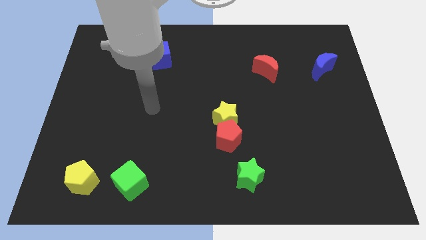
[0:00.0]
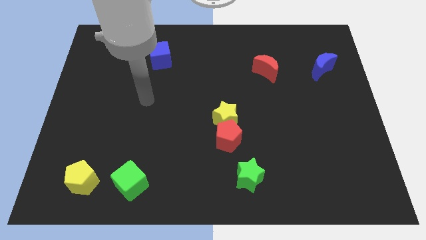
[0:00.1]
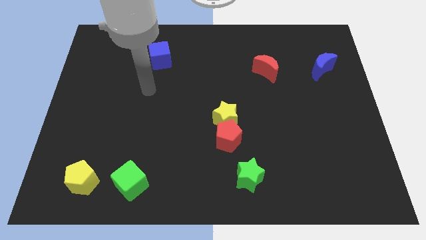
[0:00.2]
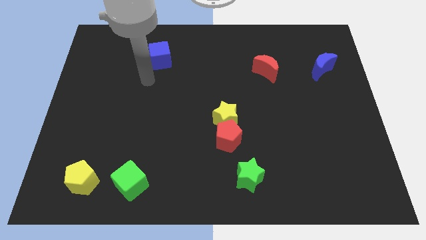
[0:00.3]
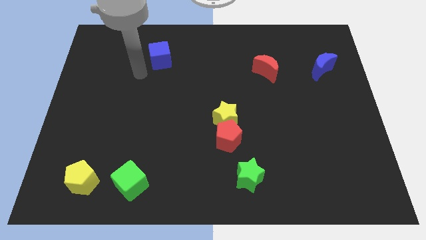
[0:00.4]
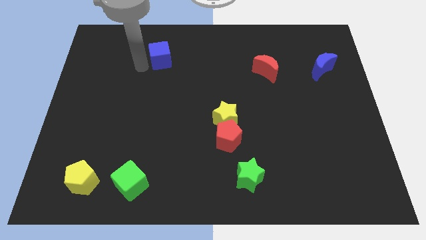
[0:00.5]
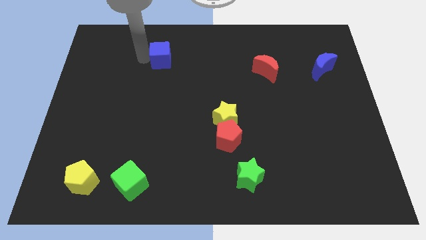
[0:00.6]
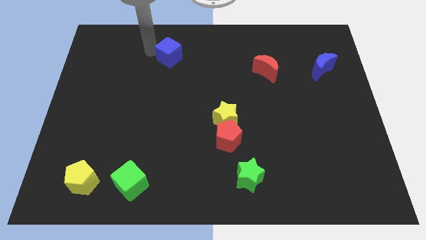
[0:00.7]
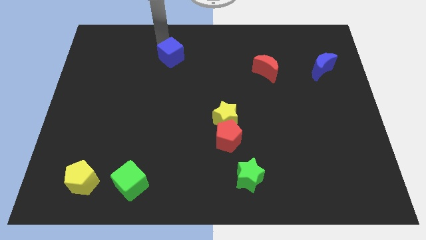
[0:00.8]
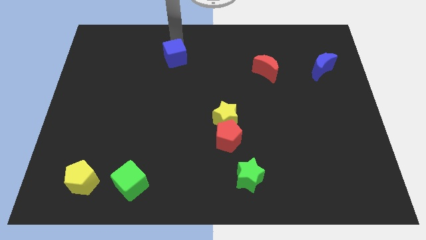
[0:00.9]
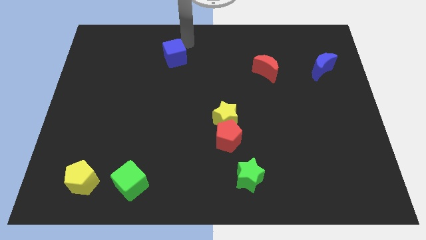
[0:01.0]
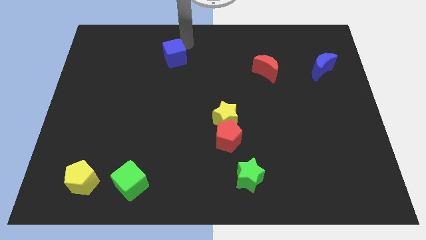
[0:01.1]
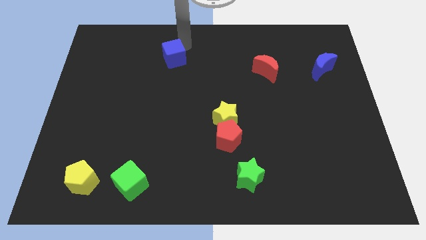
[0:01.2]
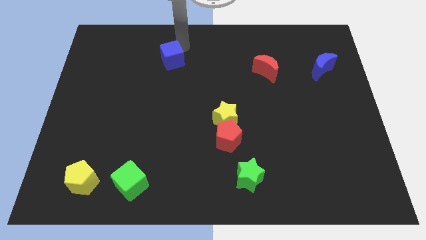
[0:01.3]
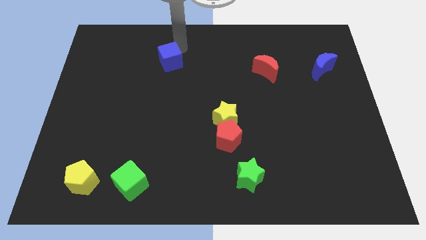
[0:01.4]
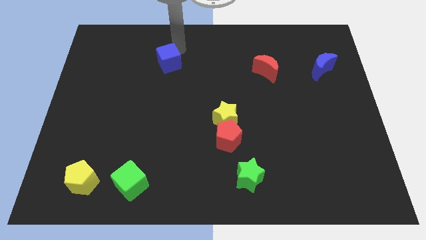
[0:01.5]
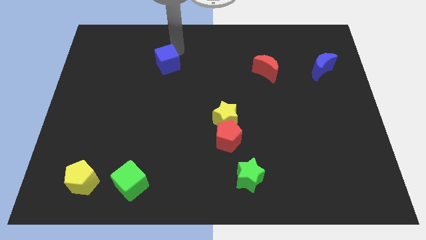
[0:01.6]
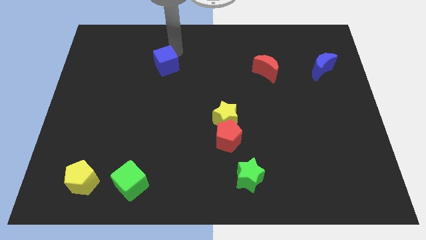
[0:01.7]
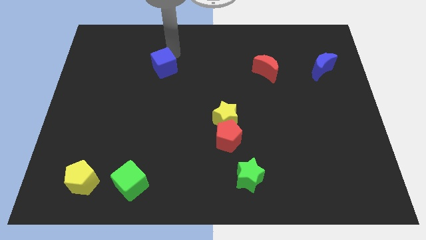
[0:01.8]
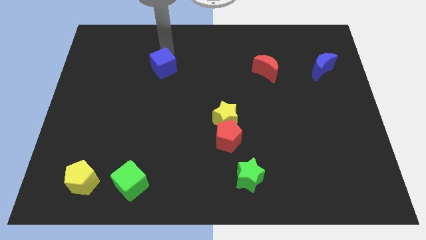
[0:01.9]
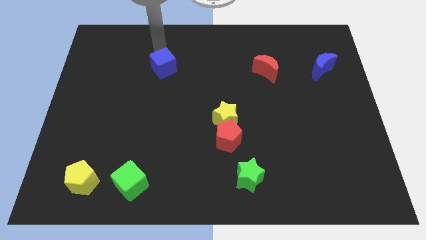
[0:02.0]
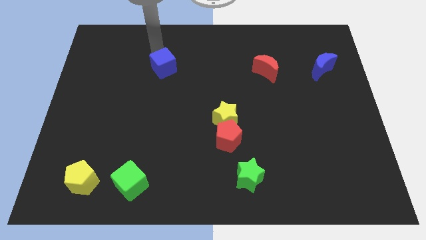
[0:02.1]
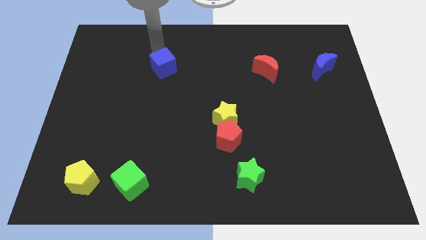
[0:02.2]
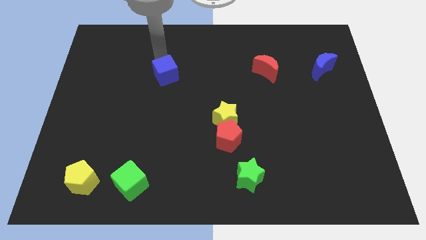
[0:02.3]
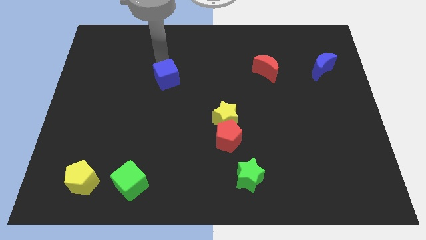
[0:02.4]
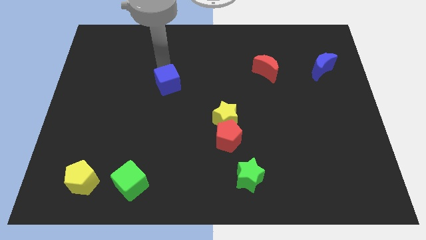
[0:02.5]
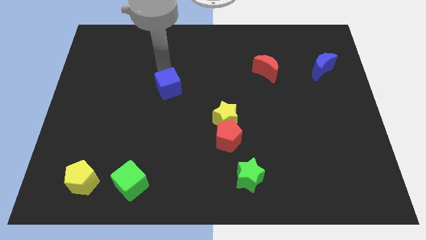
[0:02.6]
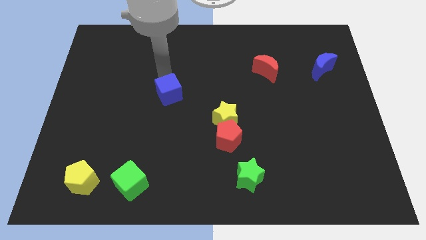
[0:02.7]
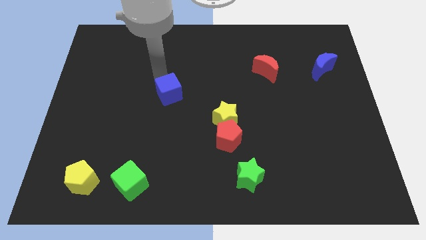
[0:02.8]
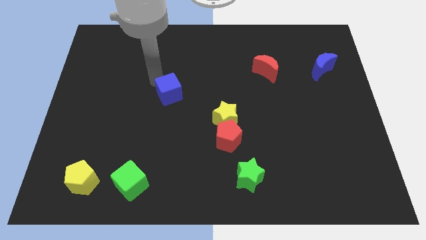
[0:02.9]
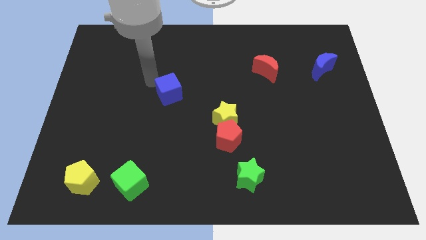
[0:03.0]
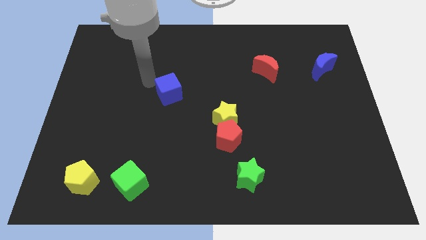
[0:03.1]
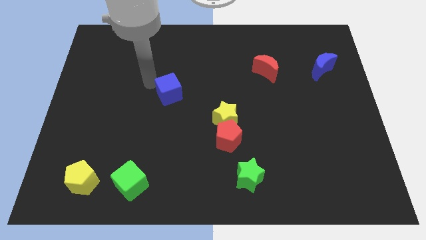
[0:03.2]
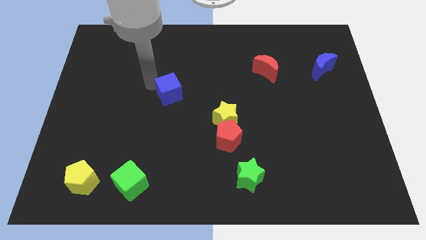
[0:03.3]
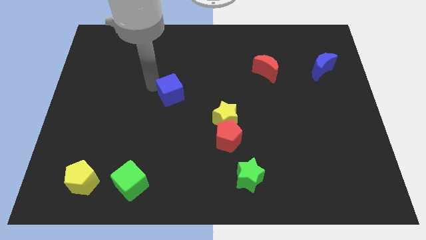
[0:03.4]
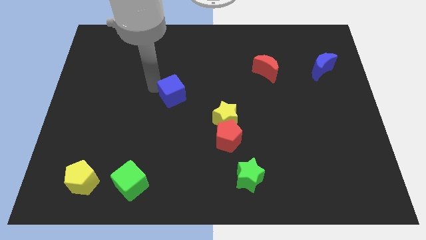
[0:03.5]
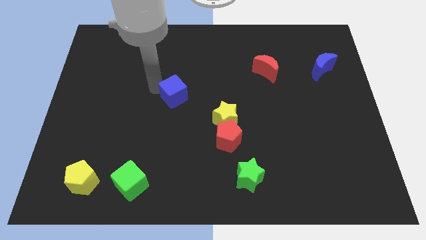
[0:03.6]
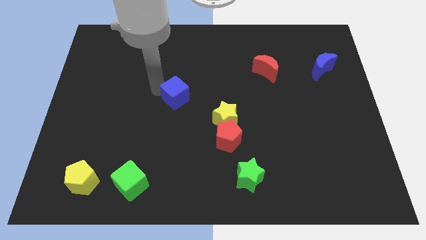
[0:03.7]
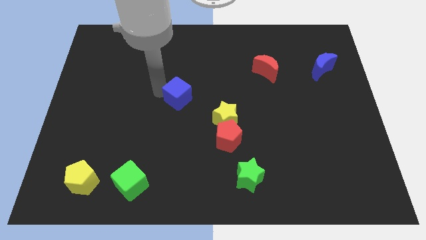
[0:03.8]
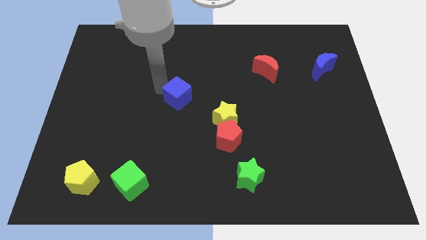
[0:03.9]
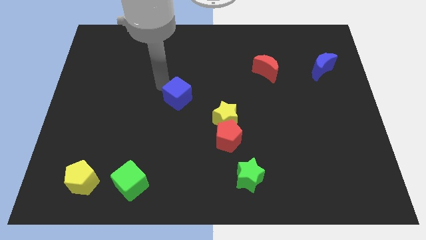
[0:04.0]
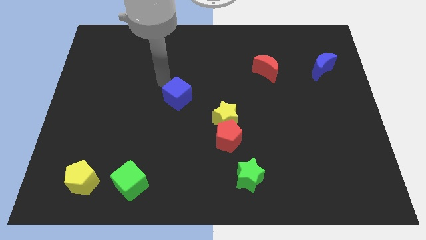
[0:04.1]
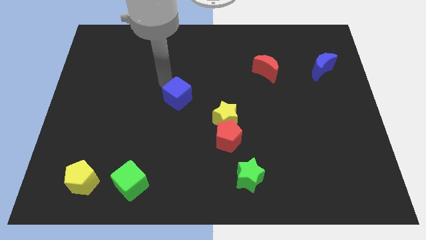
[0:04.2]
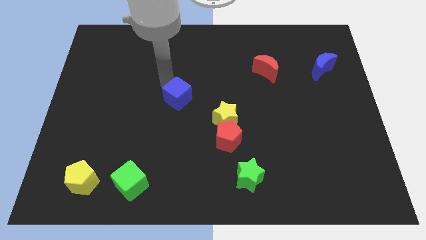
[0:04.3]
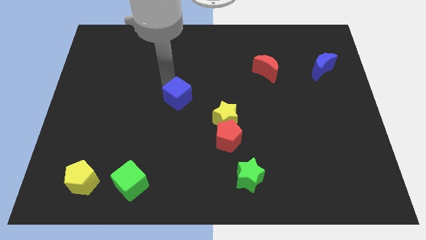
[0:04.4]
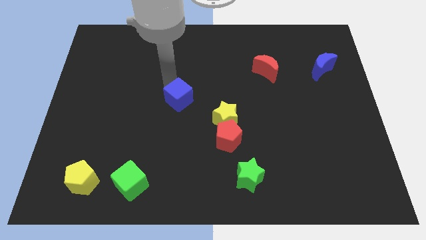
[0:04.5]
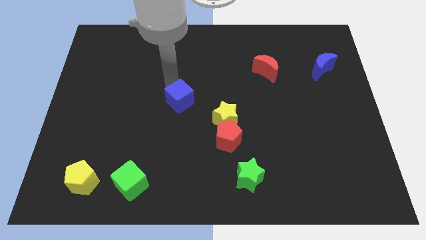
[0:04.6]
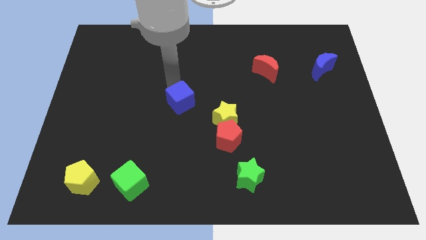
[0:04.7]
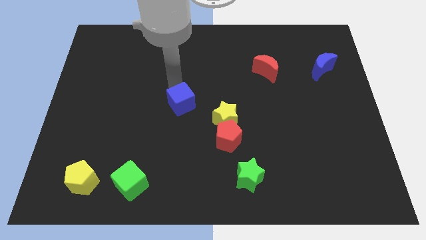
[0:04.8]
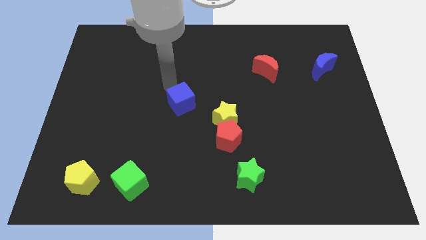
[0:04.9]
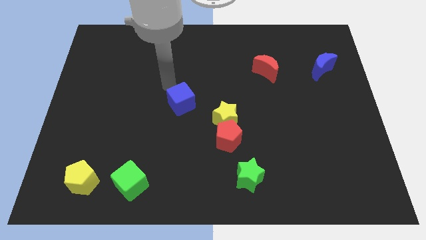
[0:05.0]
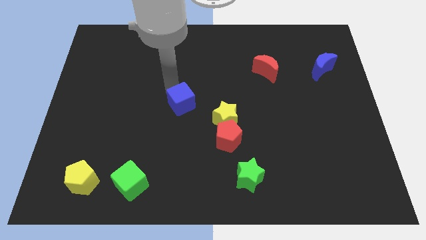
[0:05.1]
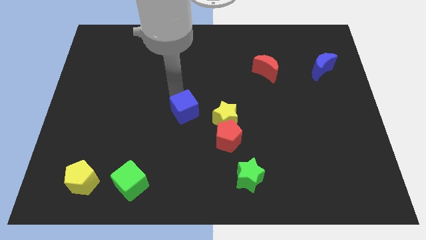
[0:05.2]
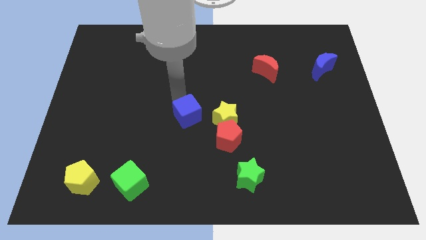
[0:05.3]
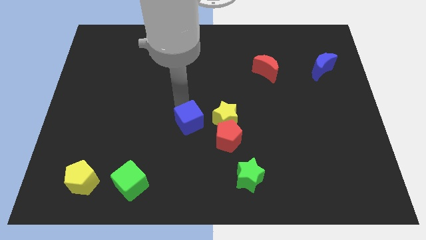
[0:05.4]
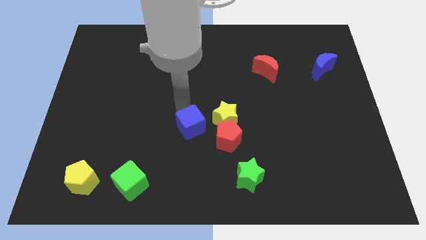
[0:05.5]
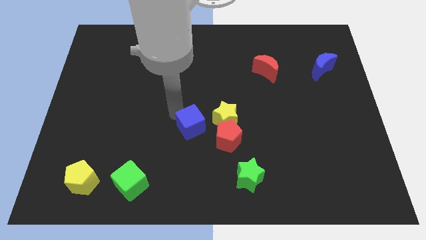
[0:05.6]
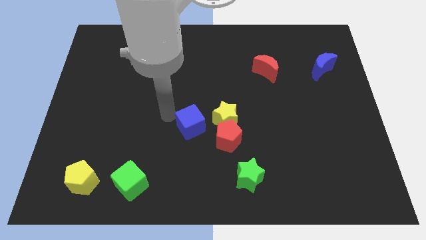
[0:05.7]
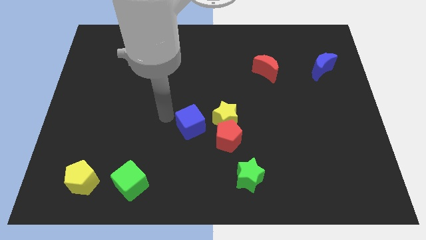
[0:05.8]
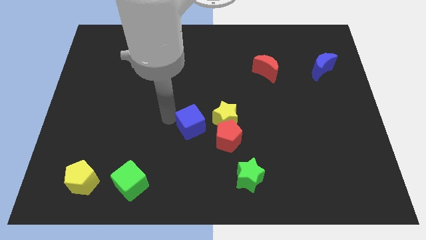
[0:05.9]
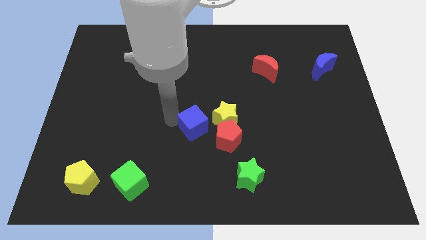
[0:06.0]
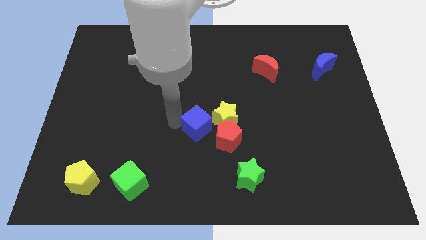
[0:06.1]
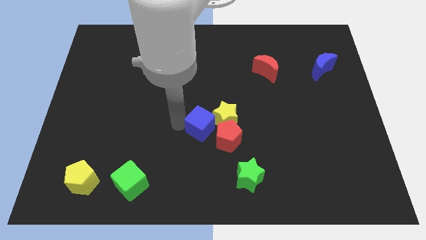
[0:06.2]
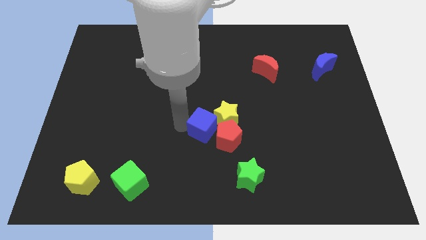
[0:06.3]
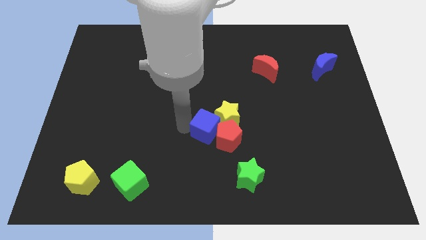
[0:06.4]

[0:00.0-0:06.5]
put the blue cube towards the red pentagon

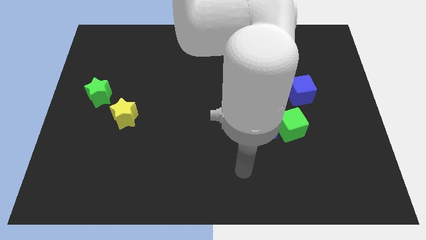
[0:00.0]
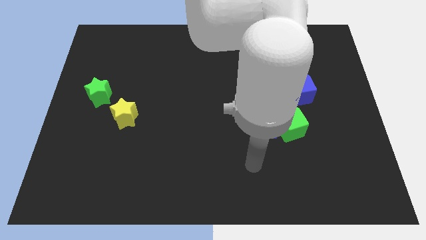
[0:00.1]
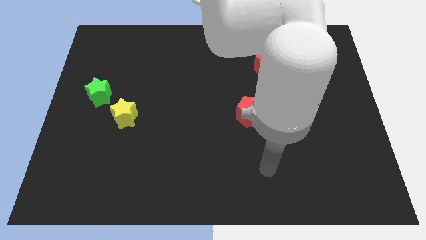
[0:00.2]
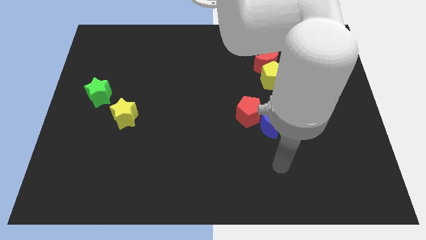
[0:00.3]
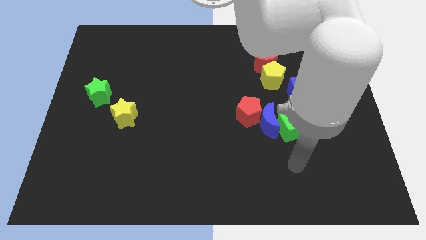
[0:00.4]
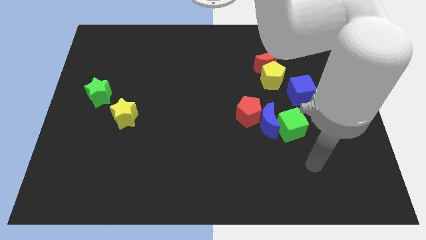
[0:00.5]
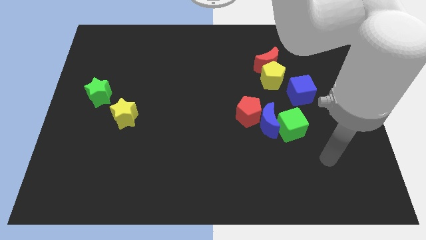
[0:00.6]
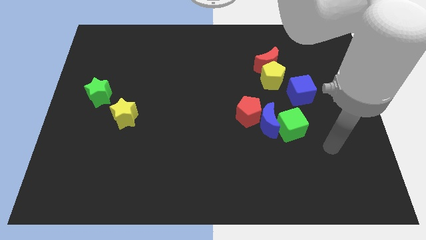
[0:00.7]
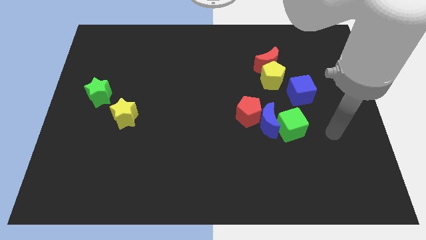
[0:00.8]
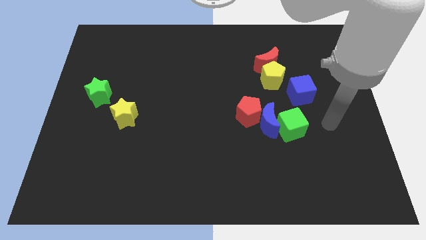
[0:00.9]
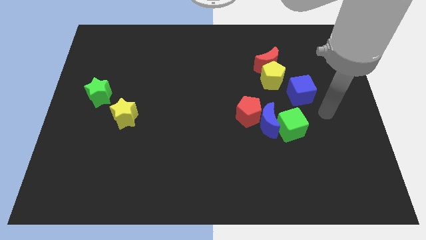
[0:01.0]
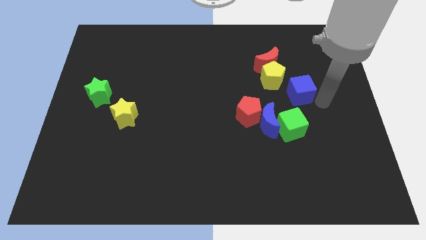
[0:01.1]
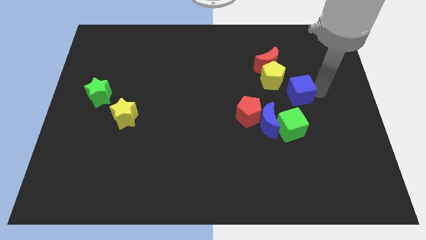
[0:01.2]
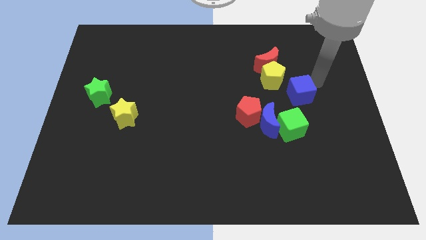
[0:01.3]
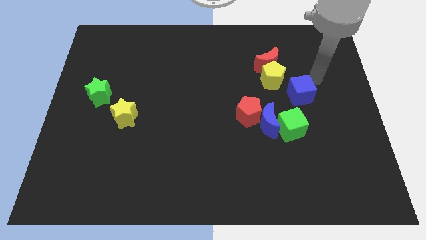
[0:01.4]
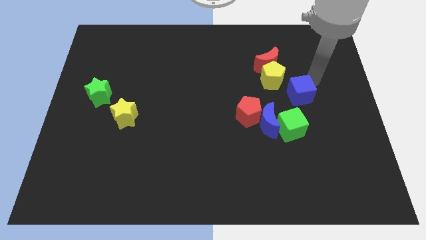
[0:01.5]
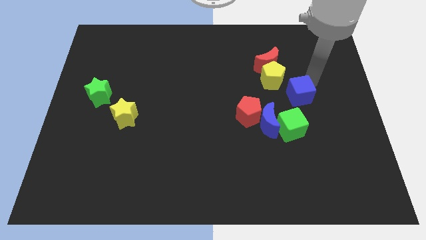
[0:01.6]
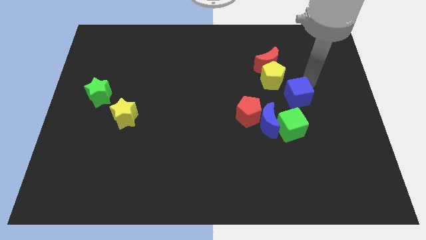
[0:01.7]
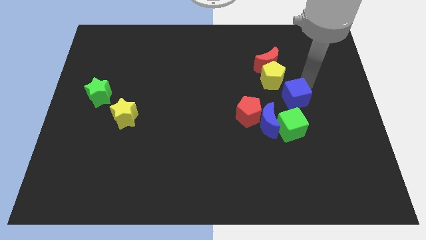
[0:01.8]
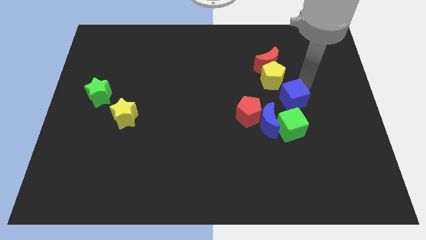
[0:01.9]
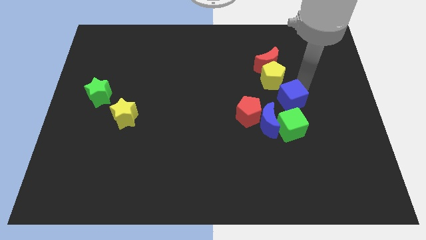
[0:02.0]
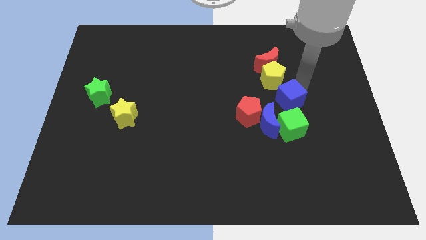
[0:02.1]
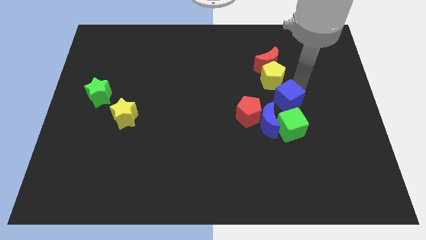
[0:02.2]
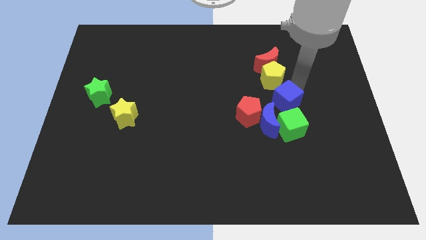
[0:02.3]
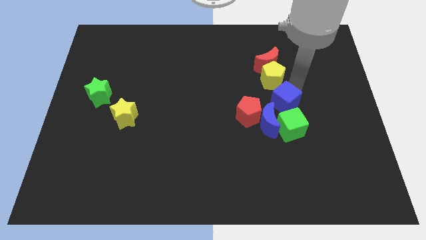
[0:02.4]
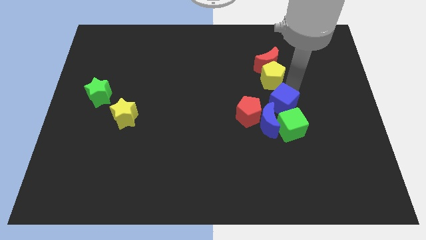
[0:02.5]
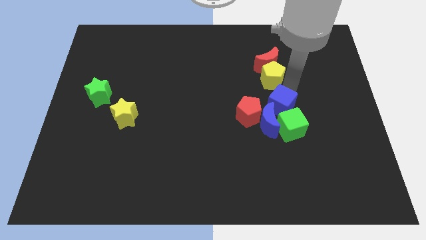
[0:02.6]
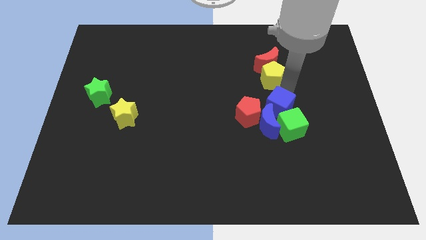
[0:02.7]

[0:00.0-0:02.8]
put the blue cube to the blue moon
